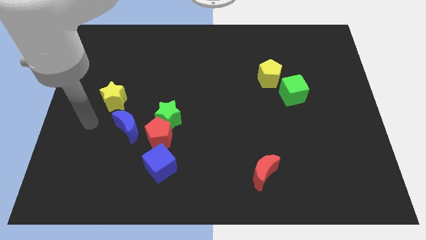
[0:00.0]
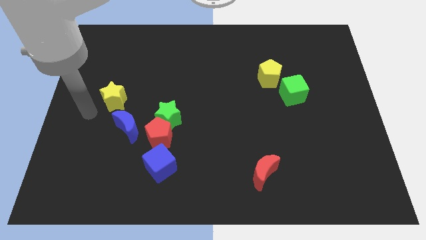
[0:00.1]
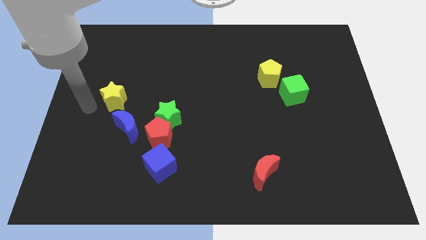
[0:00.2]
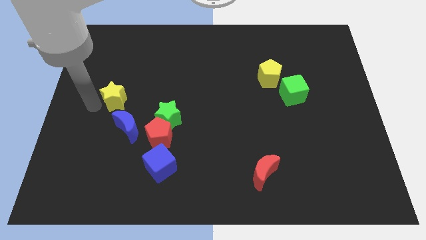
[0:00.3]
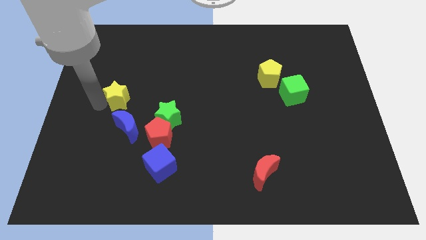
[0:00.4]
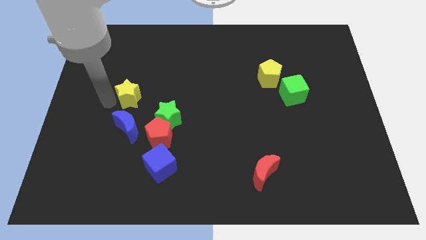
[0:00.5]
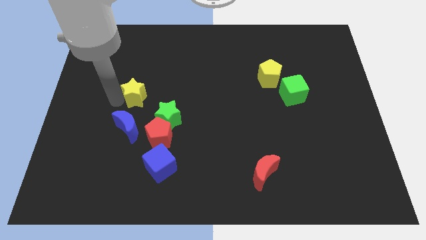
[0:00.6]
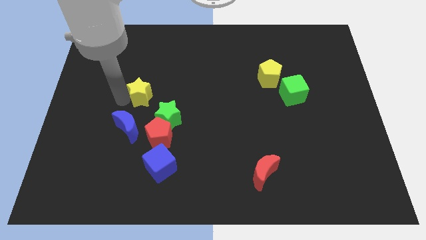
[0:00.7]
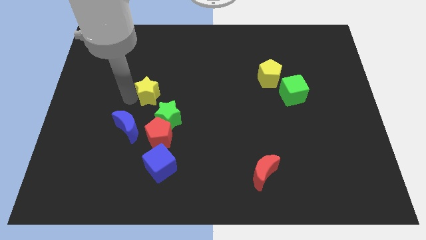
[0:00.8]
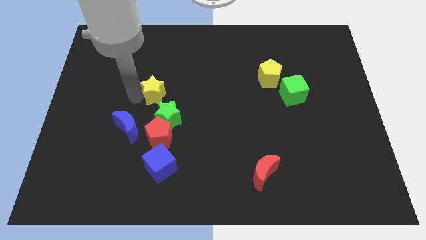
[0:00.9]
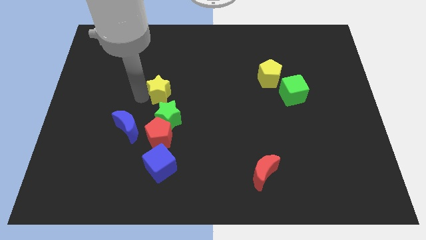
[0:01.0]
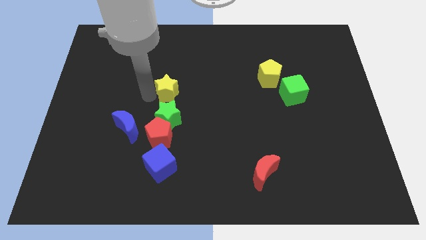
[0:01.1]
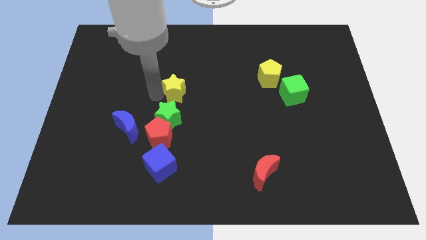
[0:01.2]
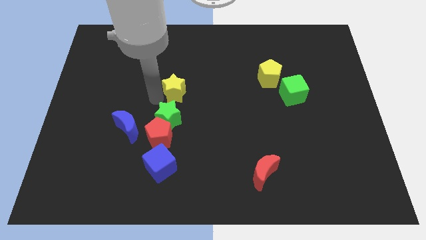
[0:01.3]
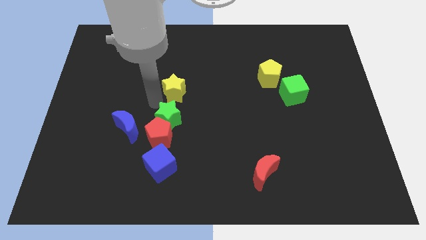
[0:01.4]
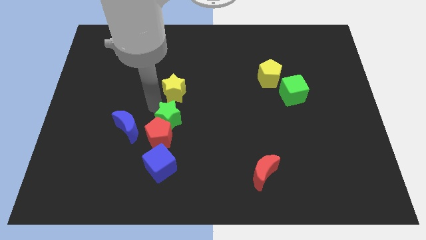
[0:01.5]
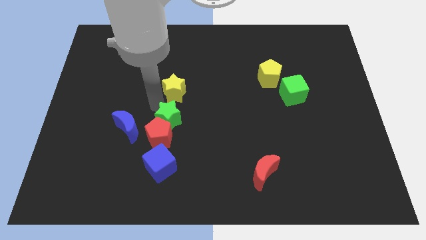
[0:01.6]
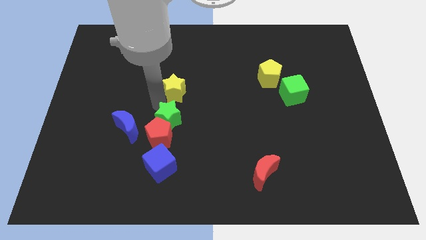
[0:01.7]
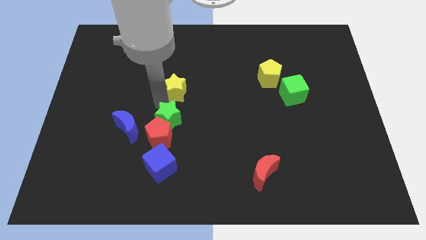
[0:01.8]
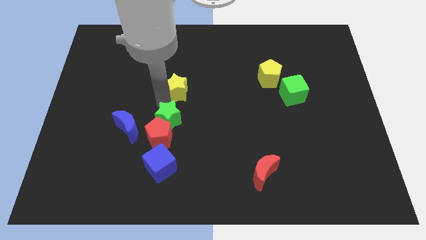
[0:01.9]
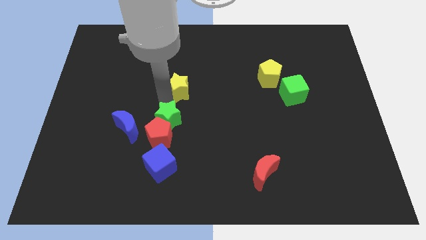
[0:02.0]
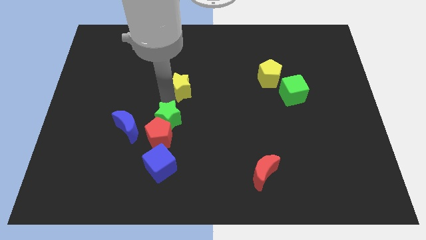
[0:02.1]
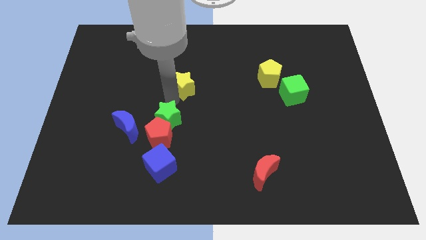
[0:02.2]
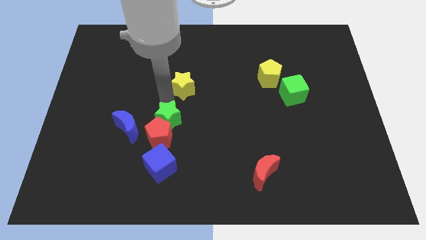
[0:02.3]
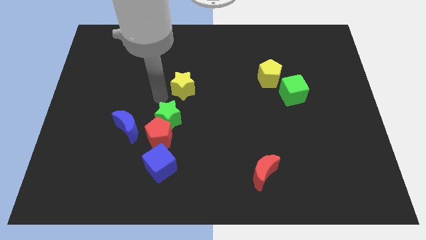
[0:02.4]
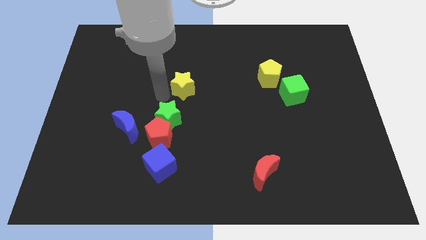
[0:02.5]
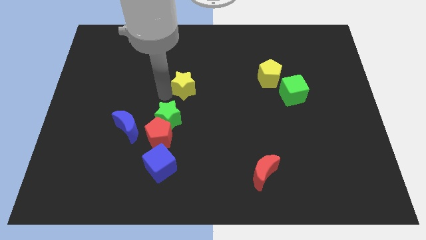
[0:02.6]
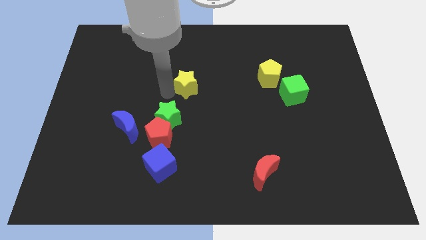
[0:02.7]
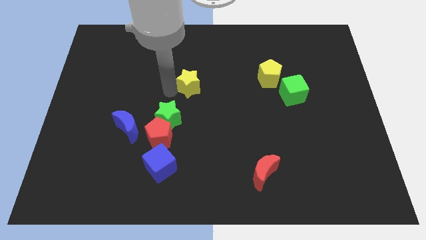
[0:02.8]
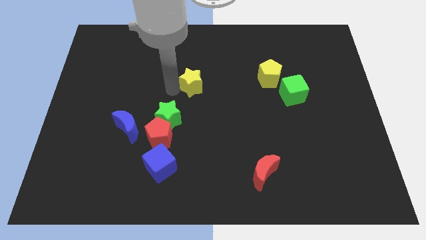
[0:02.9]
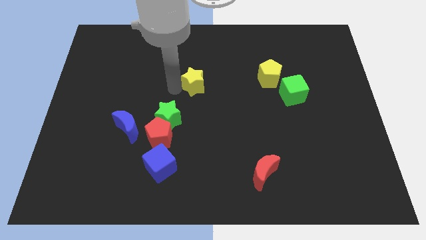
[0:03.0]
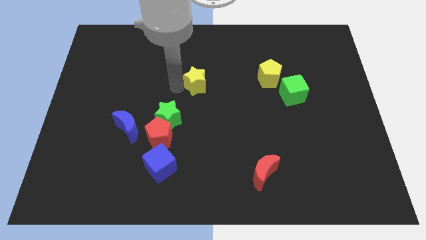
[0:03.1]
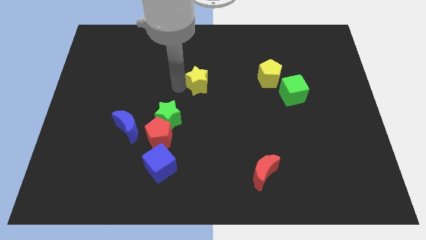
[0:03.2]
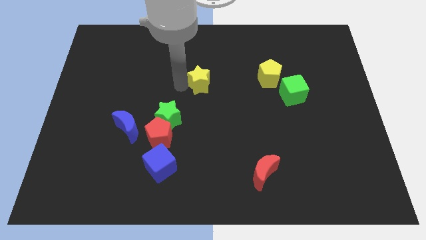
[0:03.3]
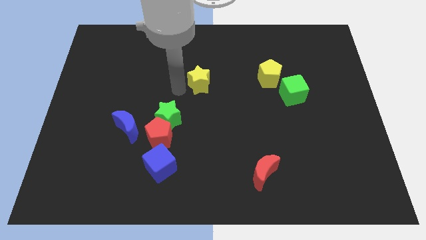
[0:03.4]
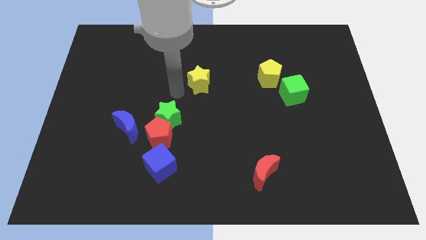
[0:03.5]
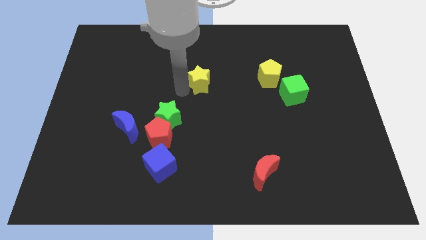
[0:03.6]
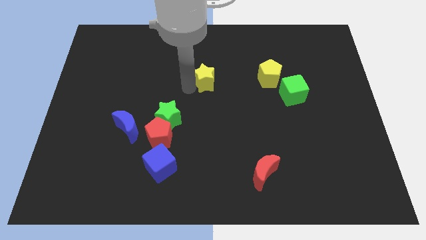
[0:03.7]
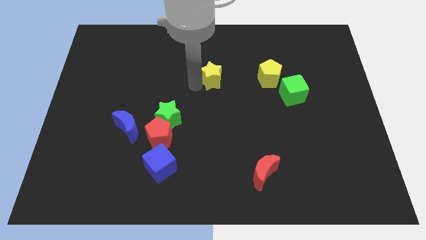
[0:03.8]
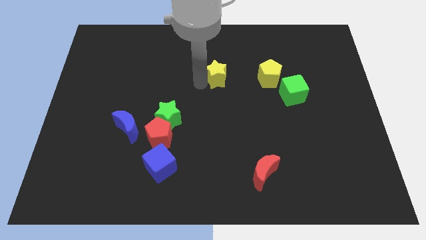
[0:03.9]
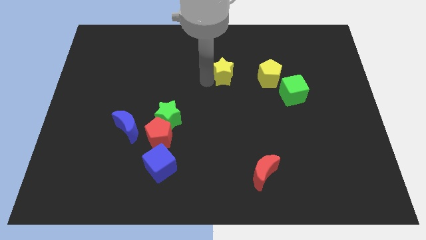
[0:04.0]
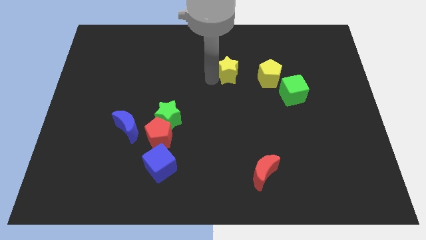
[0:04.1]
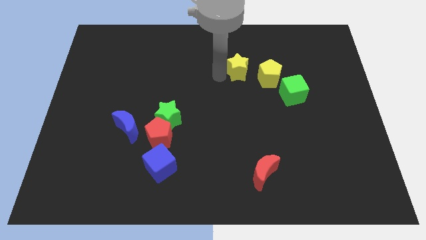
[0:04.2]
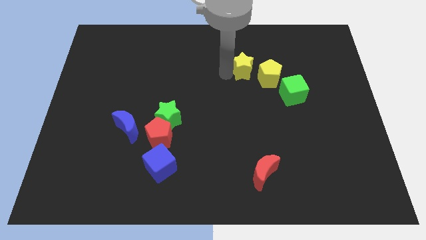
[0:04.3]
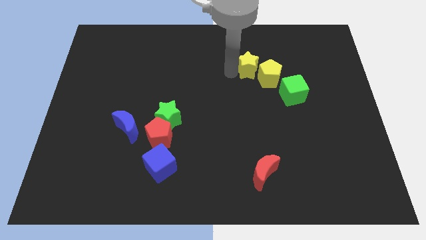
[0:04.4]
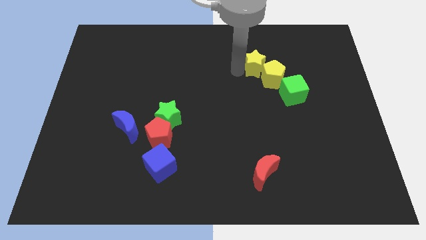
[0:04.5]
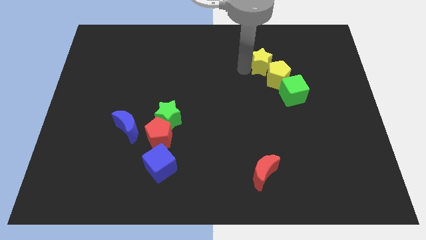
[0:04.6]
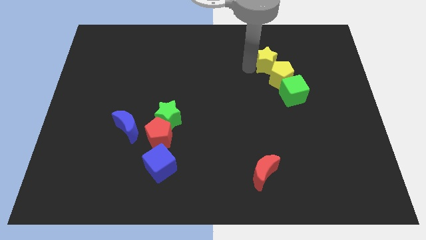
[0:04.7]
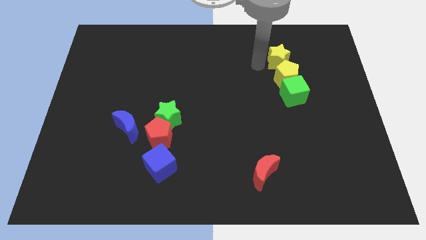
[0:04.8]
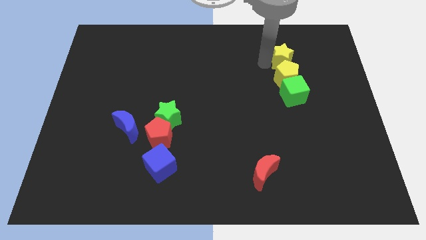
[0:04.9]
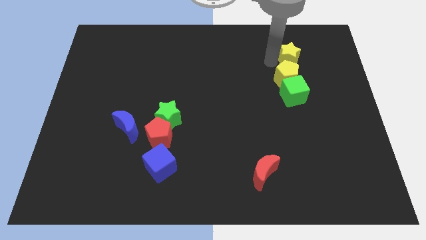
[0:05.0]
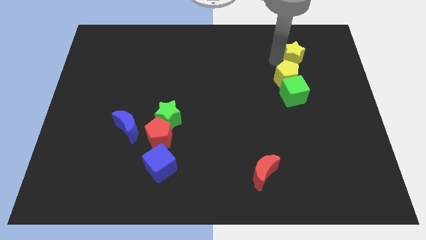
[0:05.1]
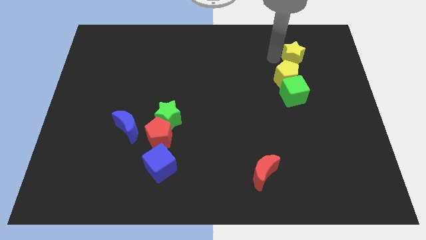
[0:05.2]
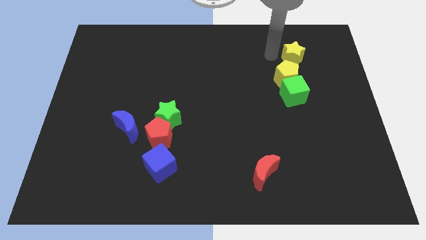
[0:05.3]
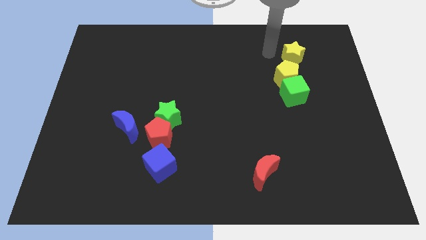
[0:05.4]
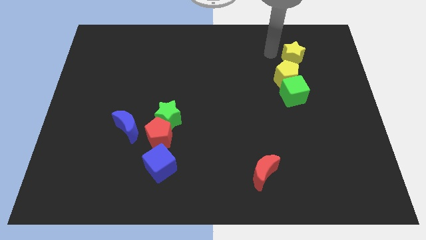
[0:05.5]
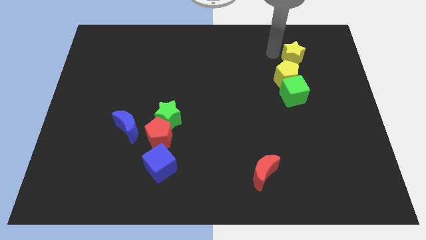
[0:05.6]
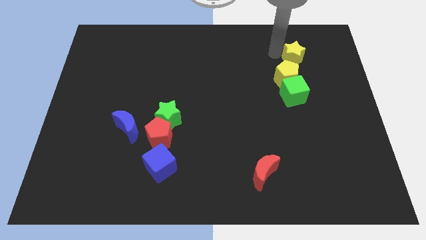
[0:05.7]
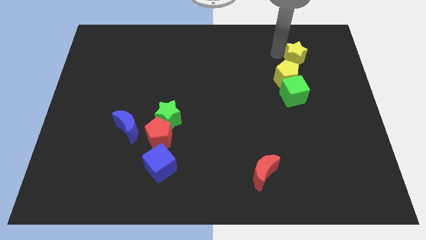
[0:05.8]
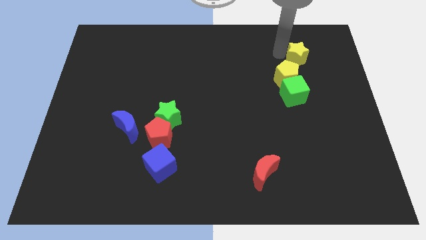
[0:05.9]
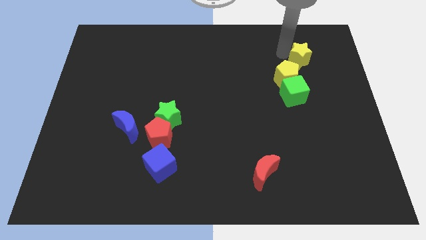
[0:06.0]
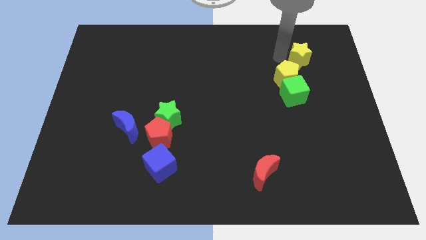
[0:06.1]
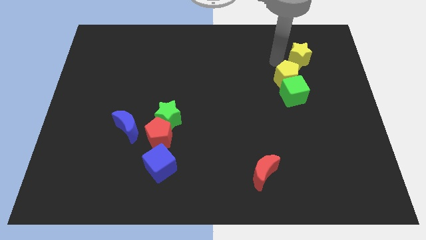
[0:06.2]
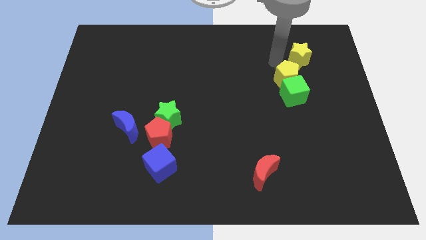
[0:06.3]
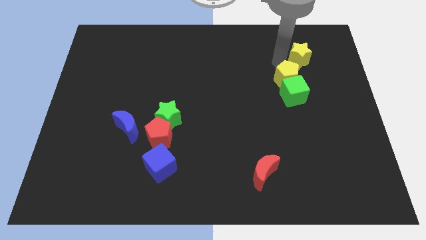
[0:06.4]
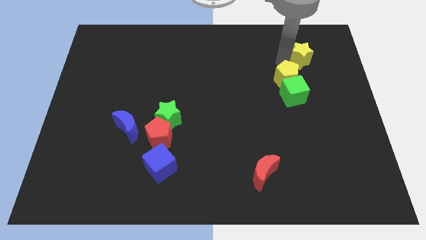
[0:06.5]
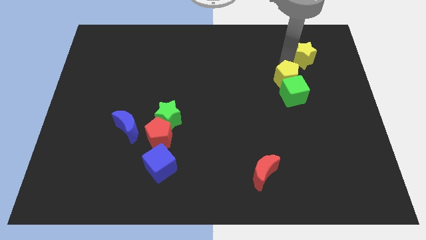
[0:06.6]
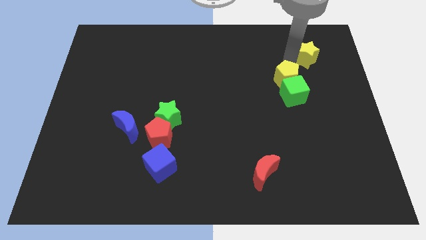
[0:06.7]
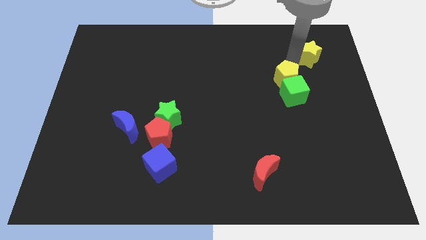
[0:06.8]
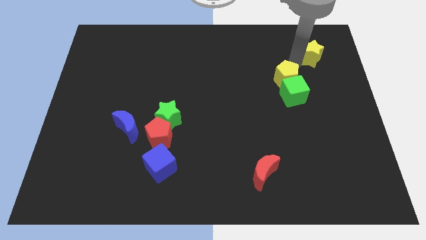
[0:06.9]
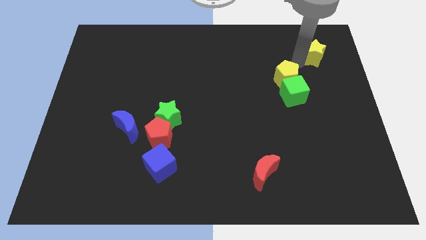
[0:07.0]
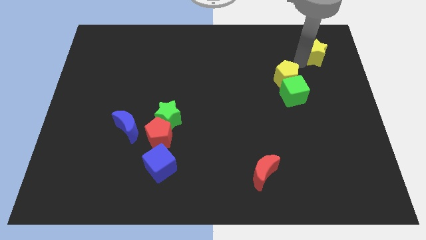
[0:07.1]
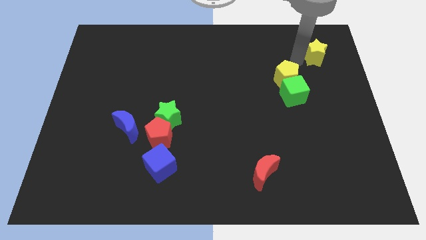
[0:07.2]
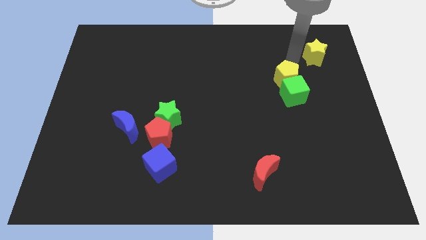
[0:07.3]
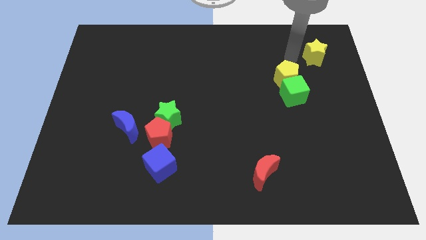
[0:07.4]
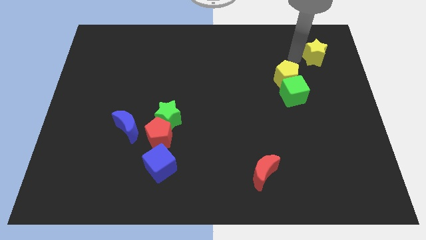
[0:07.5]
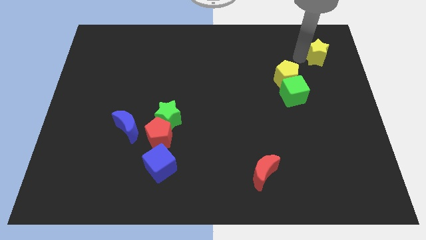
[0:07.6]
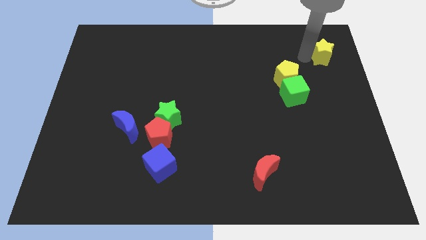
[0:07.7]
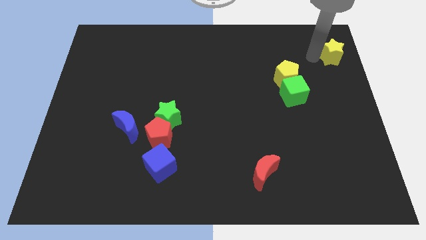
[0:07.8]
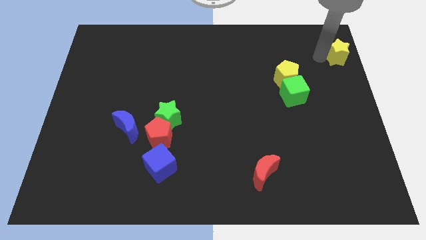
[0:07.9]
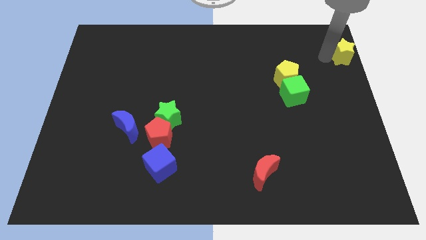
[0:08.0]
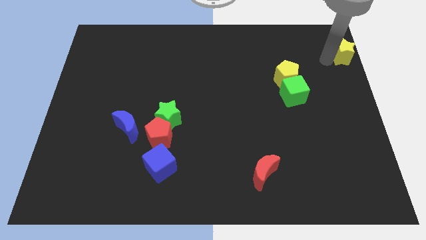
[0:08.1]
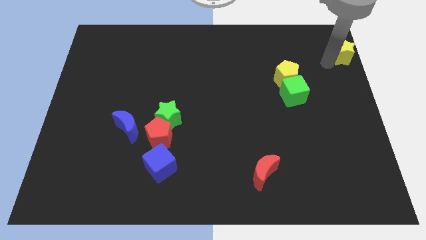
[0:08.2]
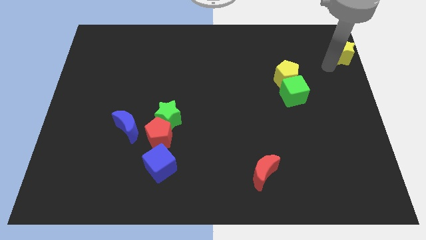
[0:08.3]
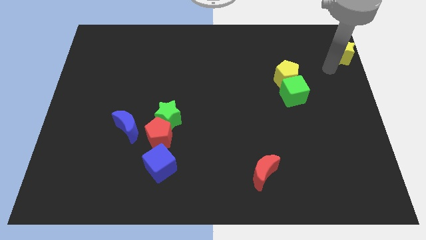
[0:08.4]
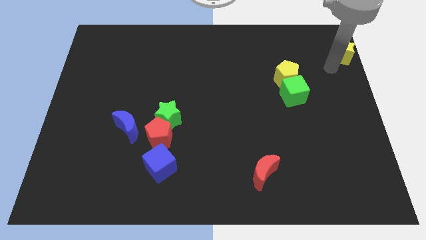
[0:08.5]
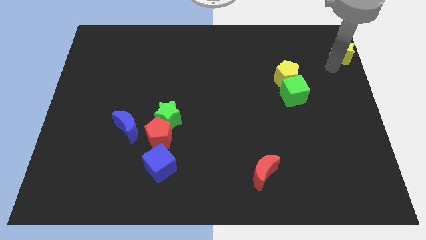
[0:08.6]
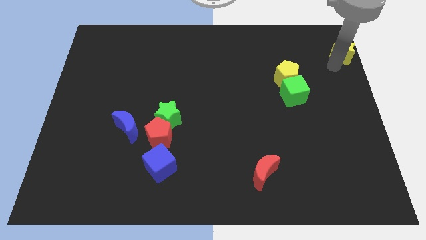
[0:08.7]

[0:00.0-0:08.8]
put the yellow star to the top right
